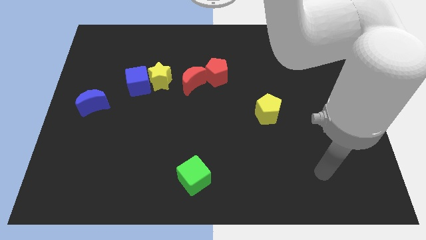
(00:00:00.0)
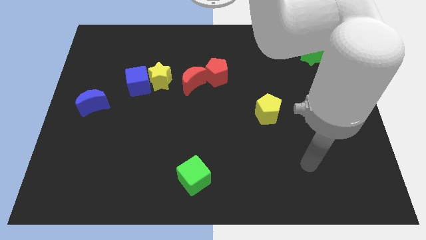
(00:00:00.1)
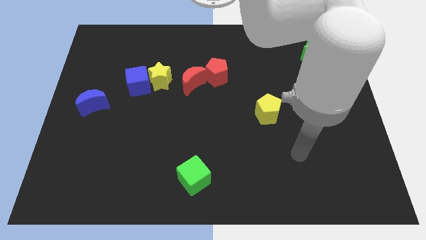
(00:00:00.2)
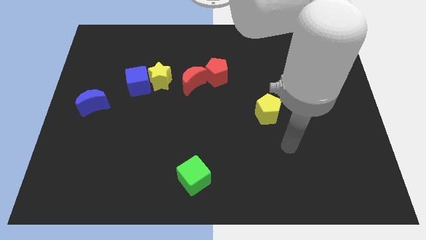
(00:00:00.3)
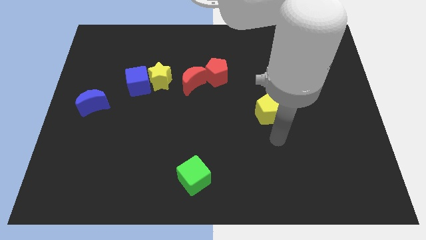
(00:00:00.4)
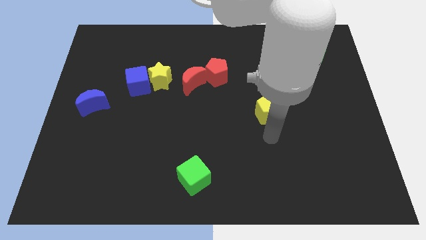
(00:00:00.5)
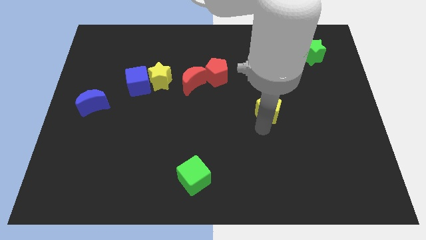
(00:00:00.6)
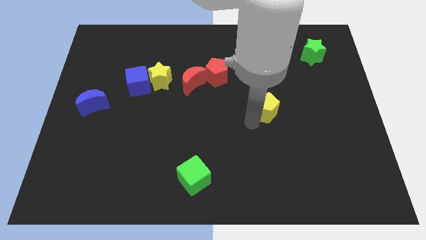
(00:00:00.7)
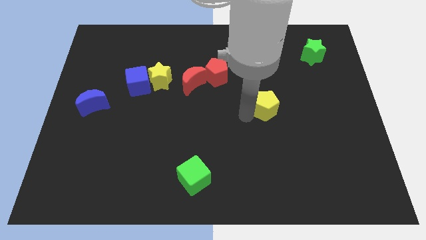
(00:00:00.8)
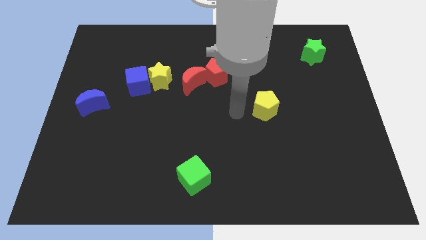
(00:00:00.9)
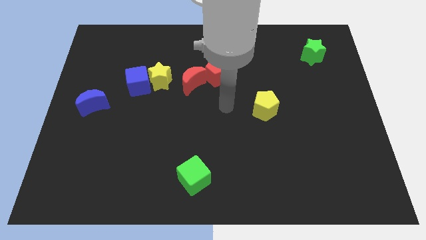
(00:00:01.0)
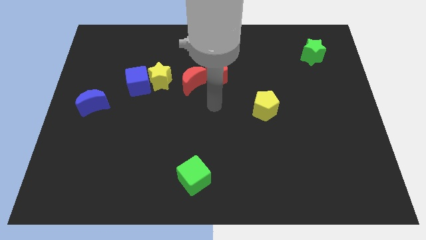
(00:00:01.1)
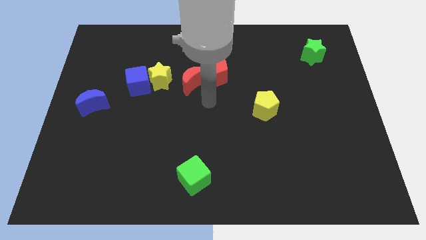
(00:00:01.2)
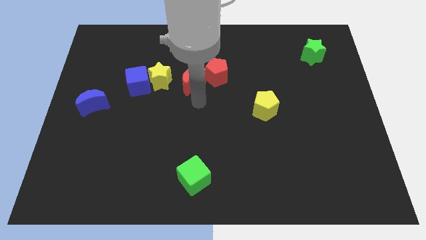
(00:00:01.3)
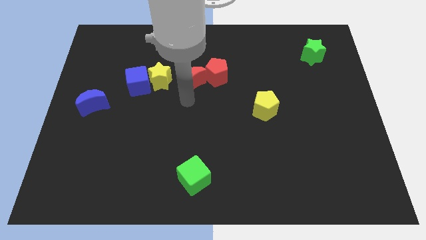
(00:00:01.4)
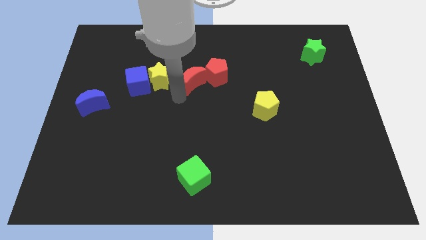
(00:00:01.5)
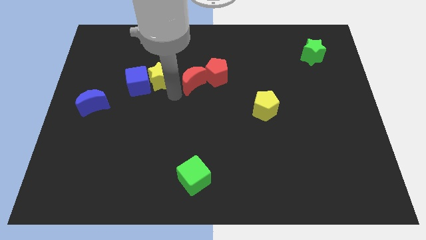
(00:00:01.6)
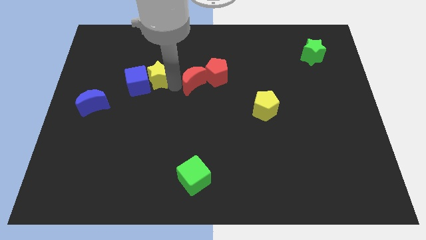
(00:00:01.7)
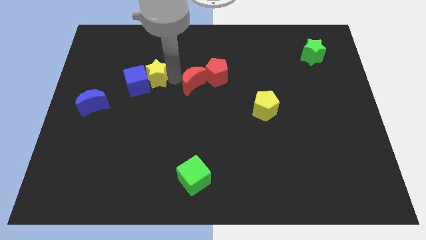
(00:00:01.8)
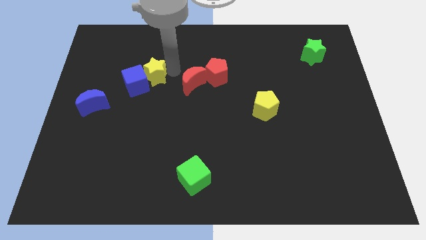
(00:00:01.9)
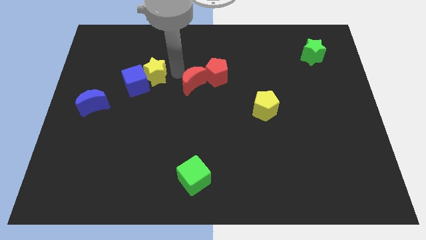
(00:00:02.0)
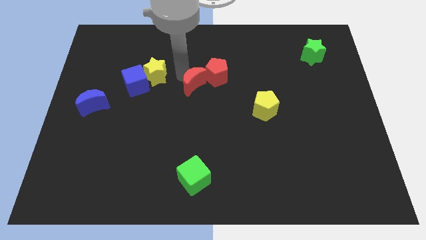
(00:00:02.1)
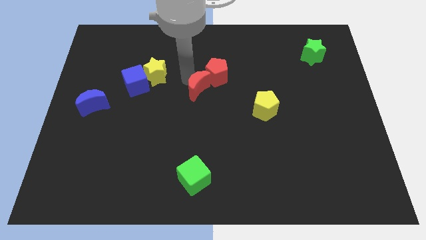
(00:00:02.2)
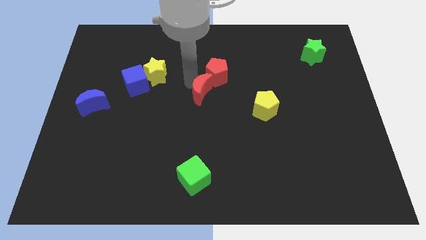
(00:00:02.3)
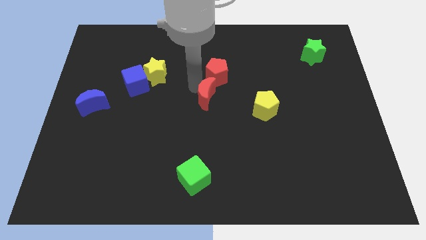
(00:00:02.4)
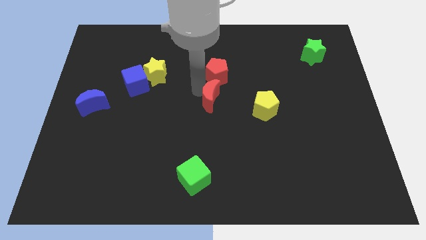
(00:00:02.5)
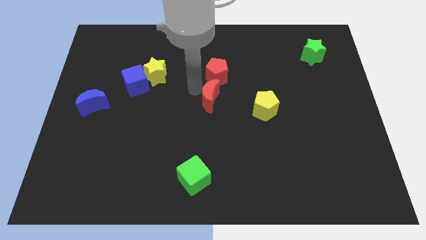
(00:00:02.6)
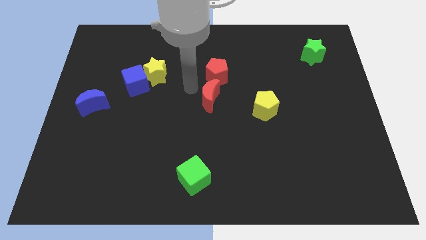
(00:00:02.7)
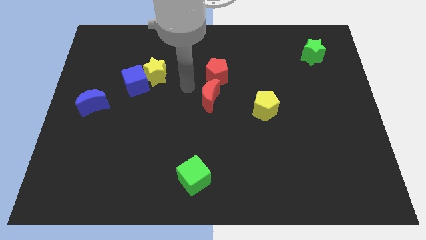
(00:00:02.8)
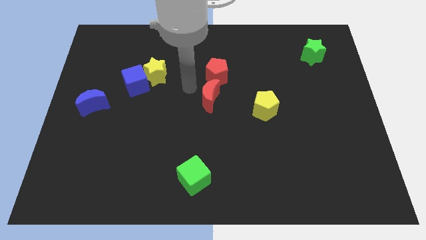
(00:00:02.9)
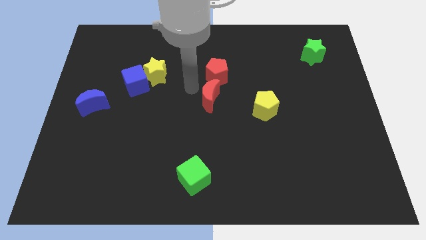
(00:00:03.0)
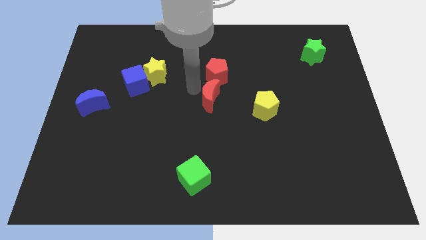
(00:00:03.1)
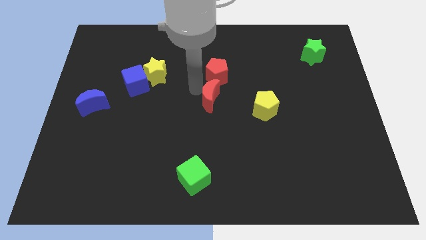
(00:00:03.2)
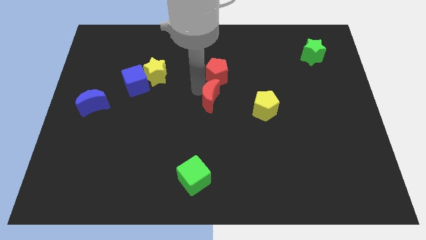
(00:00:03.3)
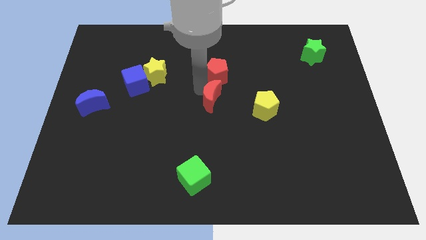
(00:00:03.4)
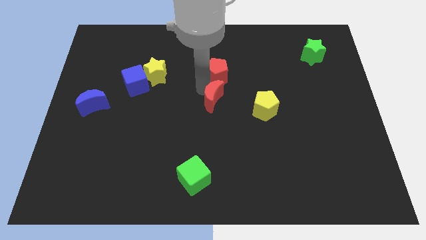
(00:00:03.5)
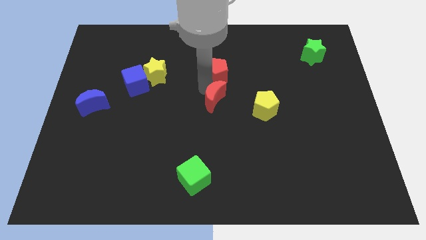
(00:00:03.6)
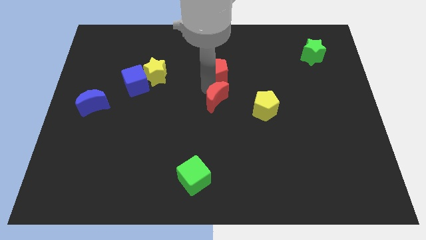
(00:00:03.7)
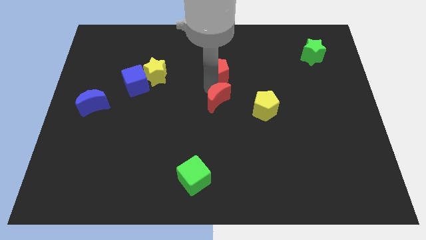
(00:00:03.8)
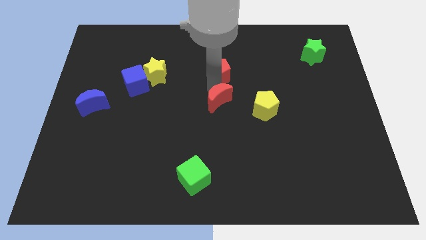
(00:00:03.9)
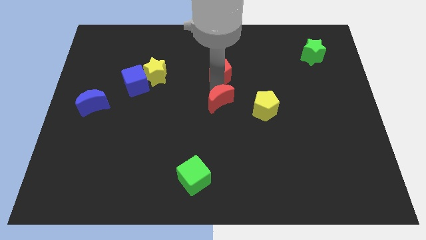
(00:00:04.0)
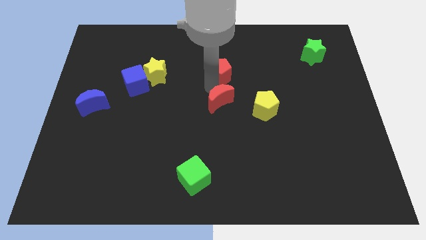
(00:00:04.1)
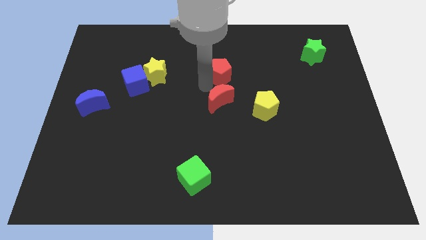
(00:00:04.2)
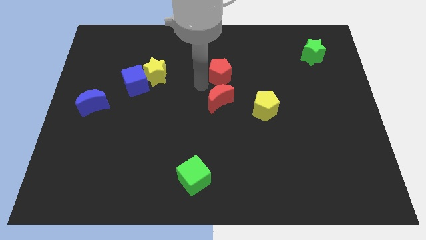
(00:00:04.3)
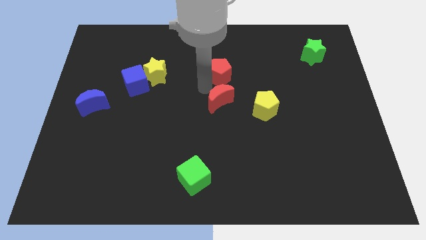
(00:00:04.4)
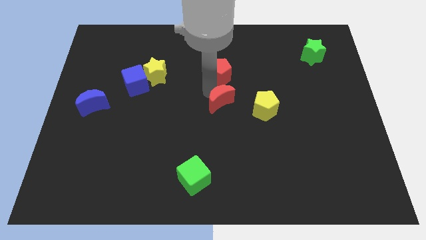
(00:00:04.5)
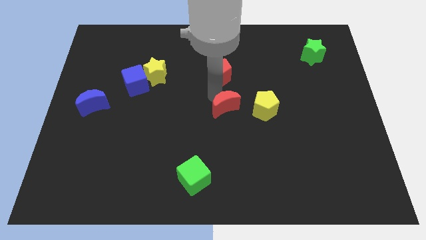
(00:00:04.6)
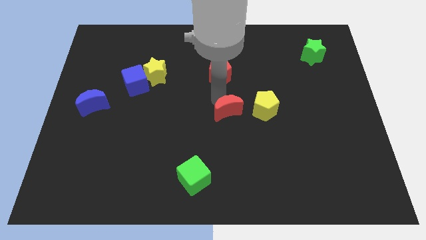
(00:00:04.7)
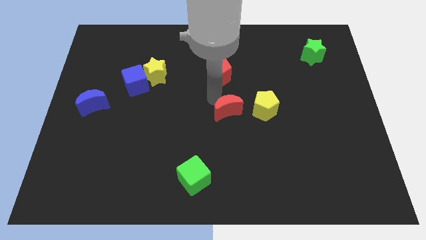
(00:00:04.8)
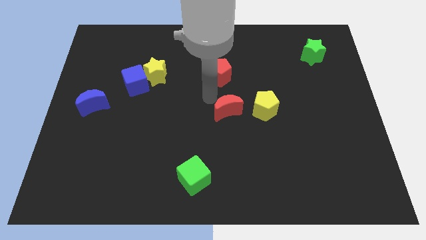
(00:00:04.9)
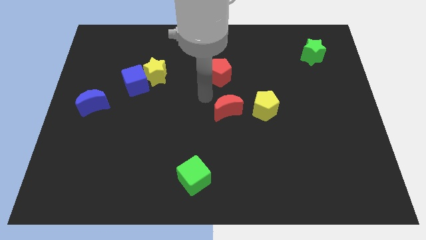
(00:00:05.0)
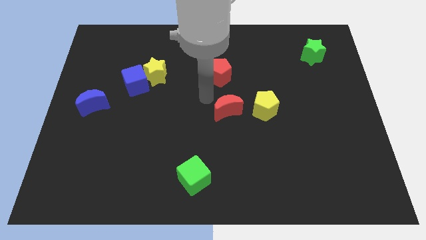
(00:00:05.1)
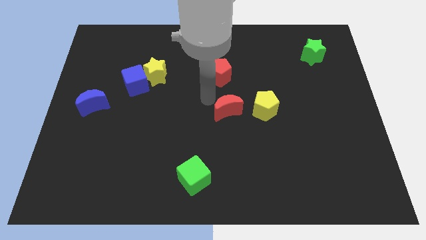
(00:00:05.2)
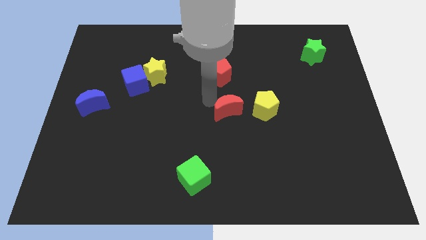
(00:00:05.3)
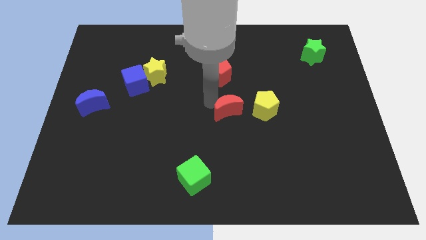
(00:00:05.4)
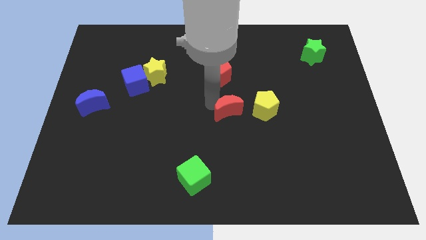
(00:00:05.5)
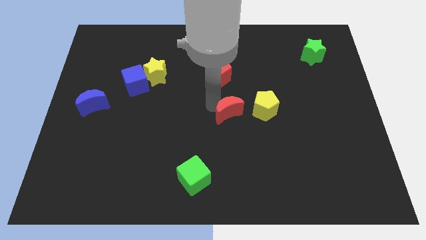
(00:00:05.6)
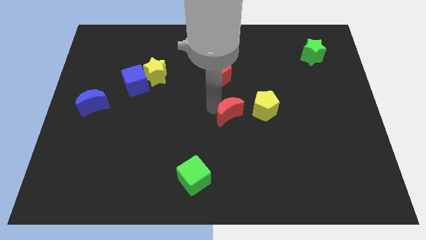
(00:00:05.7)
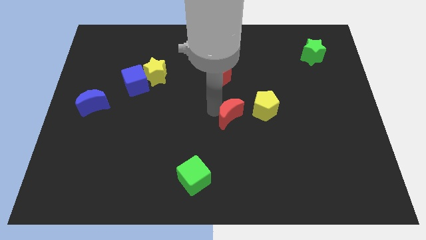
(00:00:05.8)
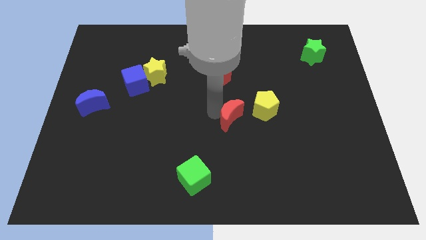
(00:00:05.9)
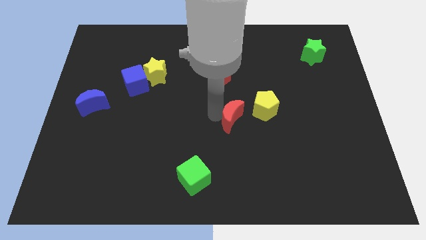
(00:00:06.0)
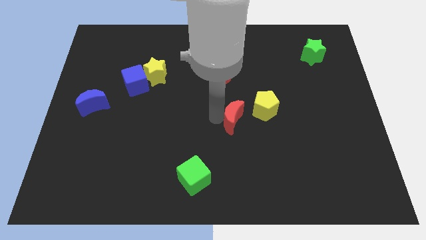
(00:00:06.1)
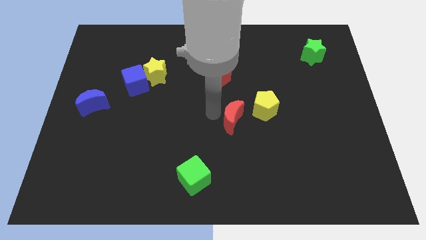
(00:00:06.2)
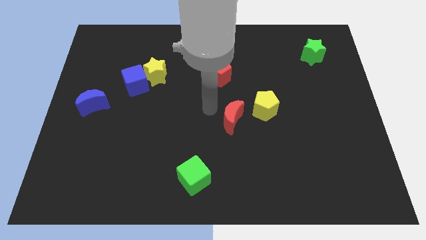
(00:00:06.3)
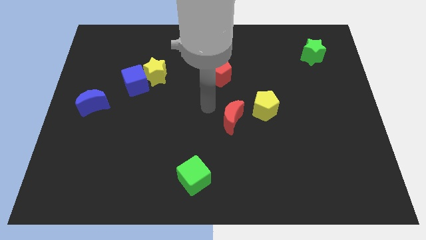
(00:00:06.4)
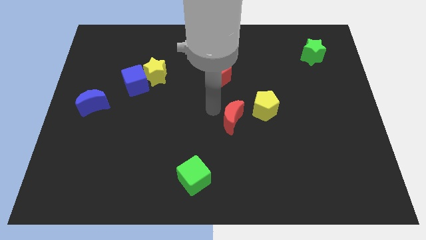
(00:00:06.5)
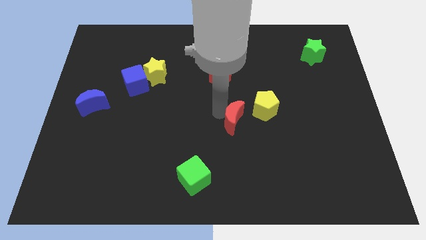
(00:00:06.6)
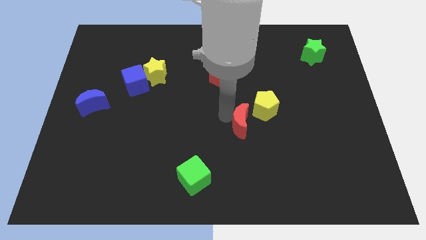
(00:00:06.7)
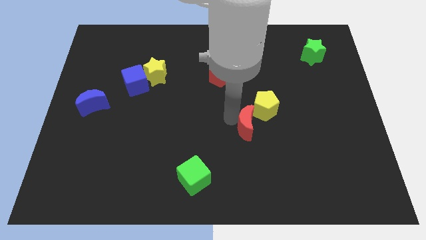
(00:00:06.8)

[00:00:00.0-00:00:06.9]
push the red moon to the bottom of the yellow pentagon
